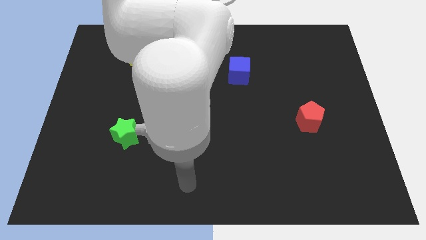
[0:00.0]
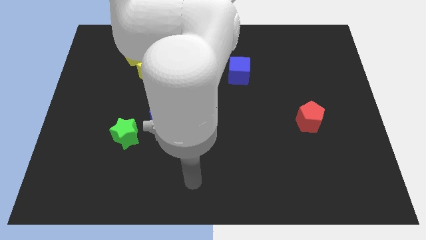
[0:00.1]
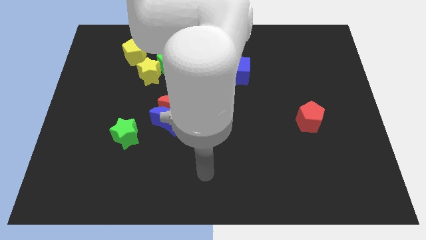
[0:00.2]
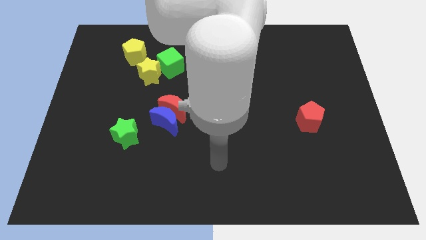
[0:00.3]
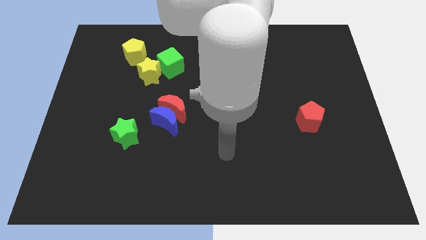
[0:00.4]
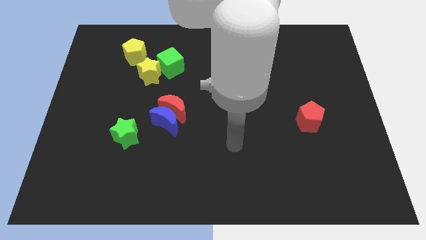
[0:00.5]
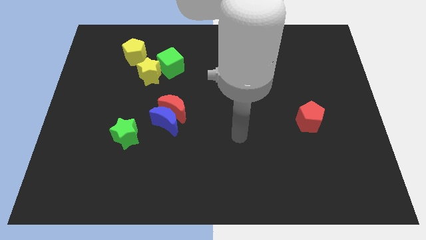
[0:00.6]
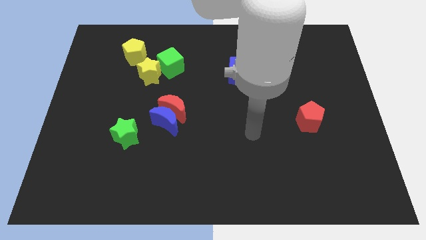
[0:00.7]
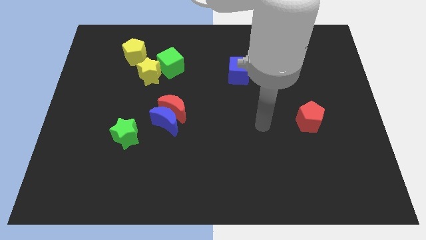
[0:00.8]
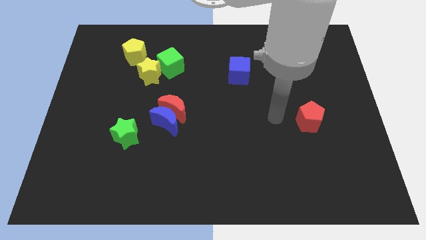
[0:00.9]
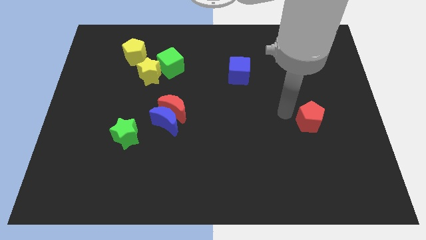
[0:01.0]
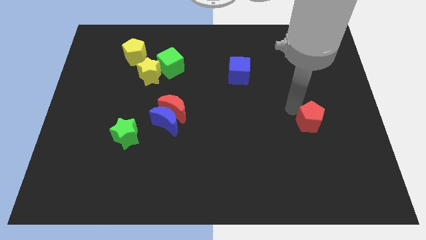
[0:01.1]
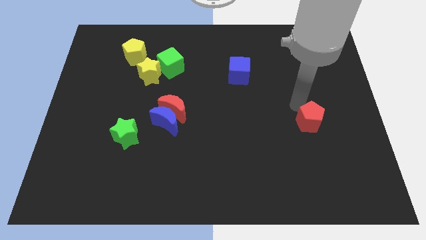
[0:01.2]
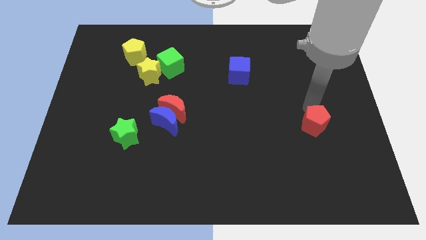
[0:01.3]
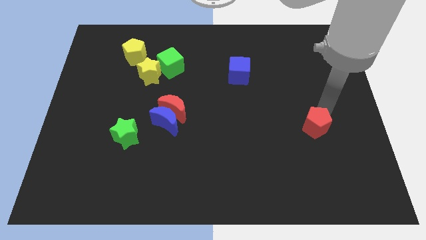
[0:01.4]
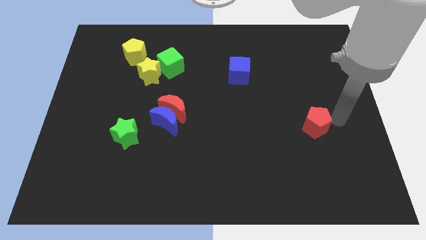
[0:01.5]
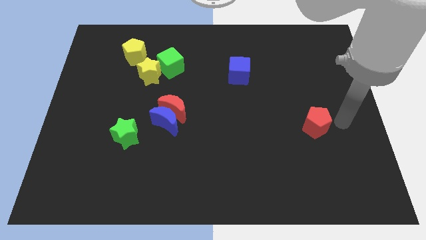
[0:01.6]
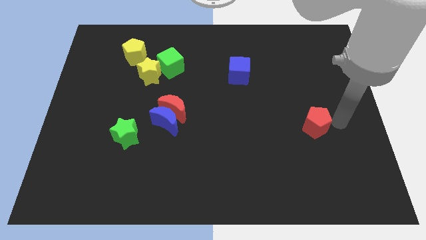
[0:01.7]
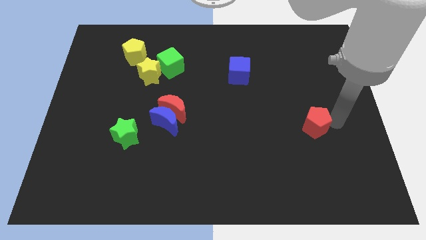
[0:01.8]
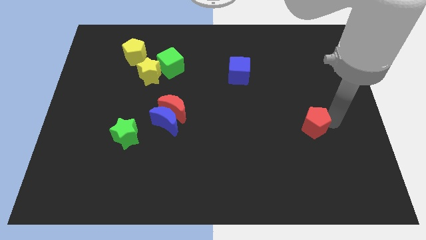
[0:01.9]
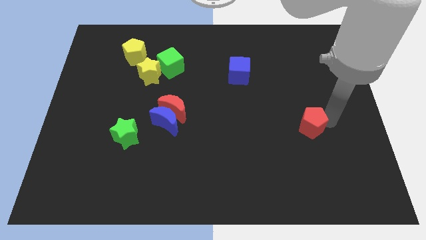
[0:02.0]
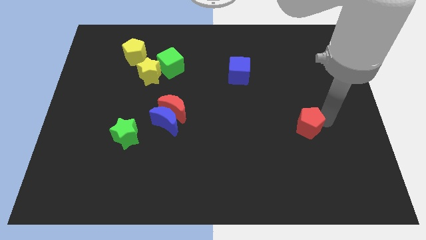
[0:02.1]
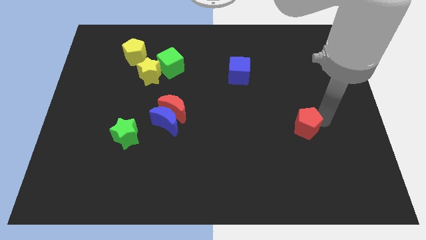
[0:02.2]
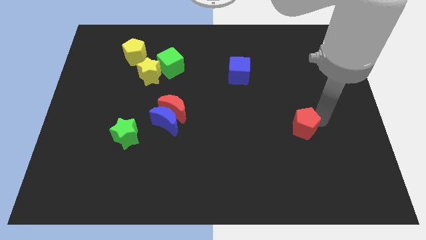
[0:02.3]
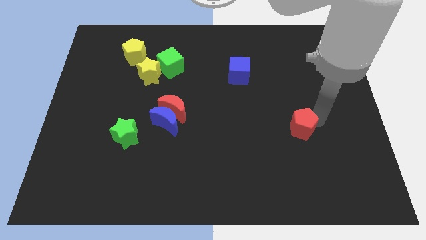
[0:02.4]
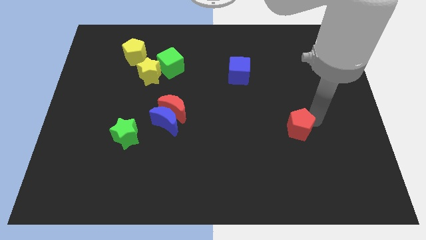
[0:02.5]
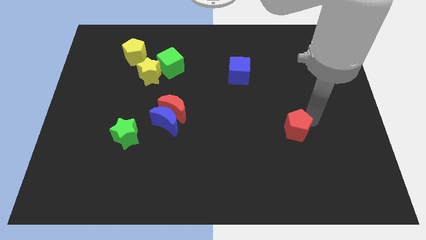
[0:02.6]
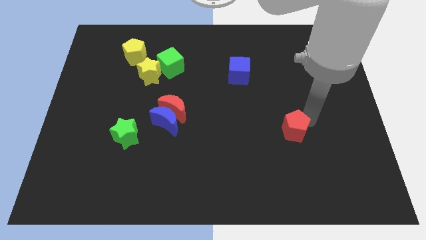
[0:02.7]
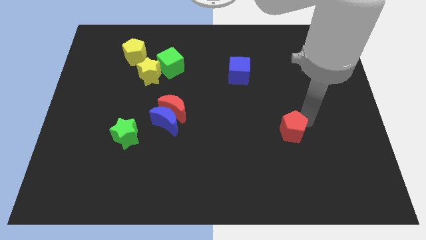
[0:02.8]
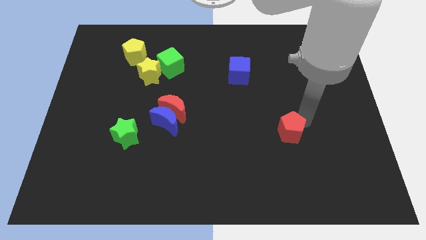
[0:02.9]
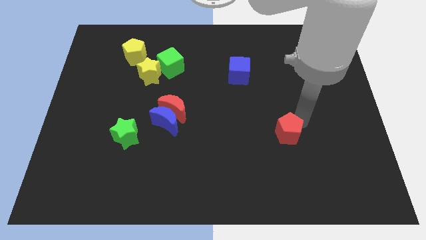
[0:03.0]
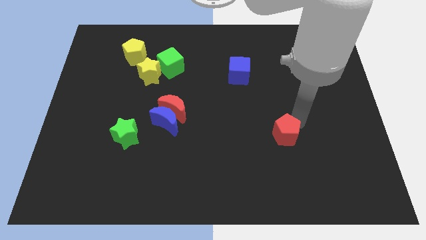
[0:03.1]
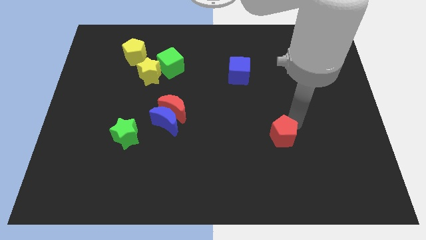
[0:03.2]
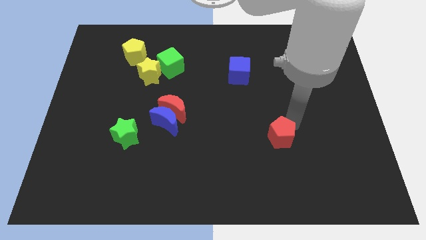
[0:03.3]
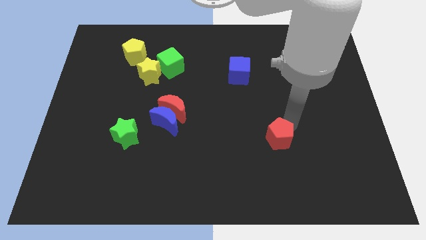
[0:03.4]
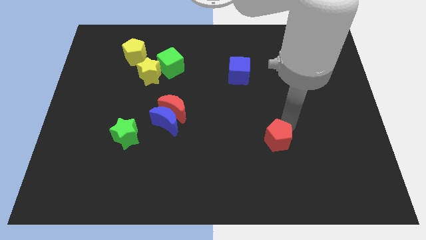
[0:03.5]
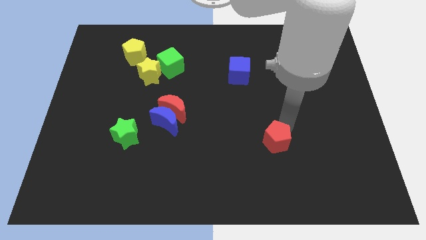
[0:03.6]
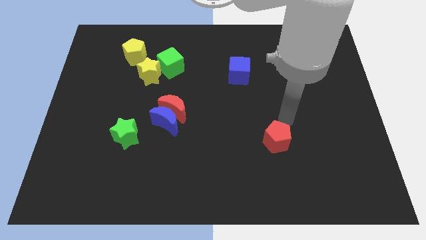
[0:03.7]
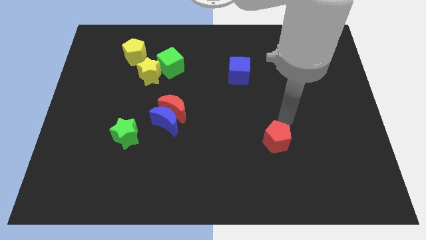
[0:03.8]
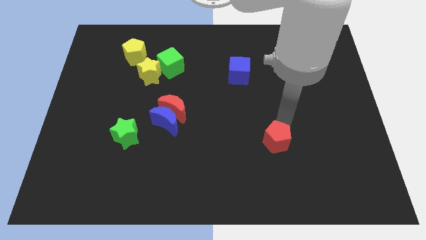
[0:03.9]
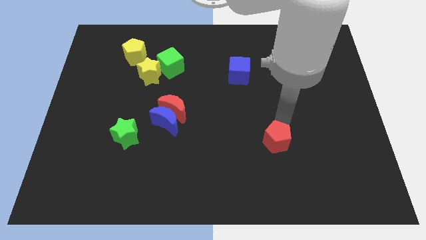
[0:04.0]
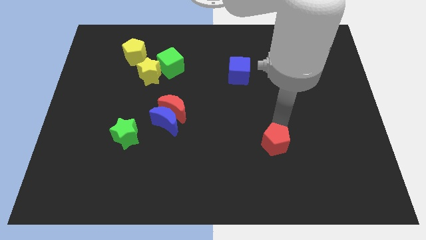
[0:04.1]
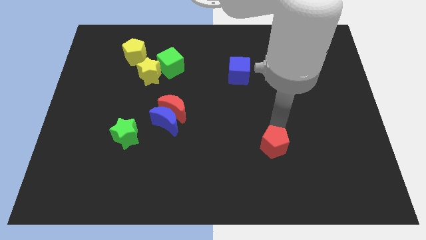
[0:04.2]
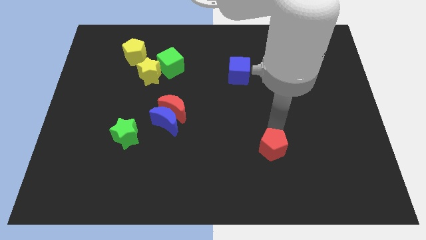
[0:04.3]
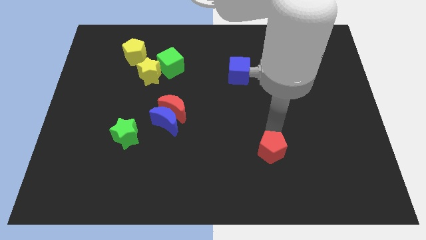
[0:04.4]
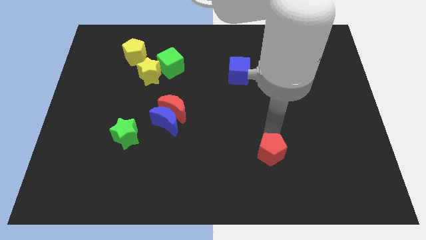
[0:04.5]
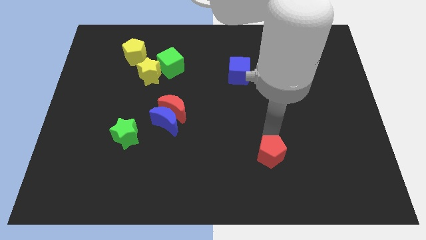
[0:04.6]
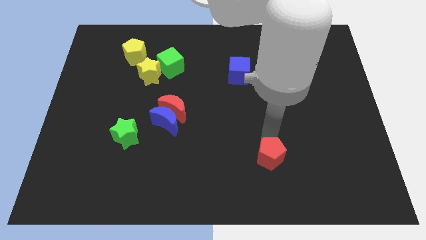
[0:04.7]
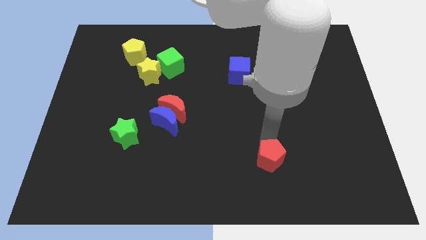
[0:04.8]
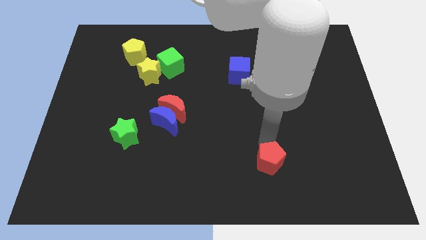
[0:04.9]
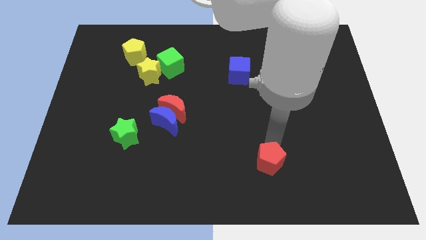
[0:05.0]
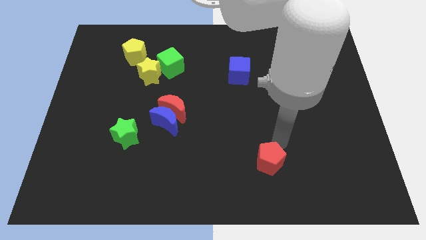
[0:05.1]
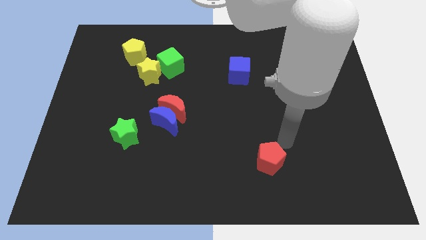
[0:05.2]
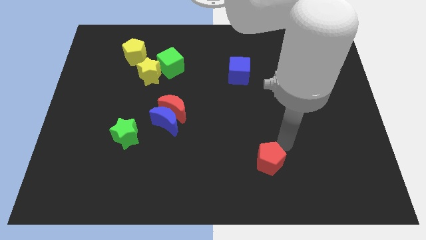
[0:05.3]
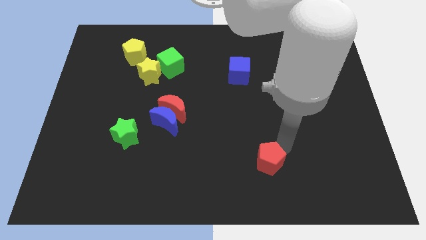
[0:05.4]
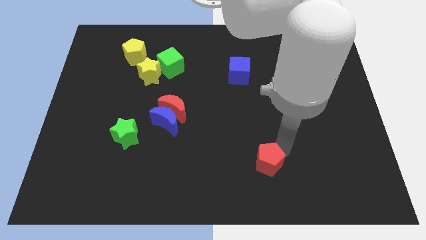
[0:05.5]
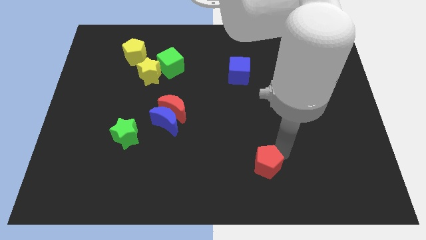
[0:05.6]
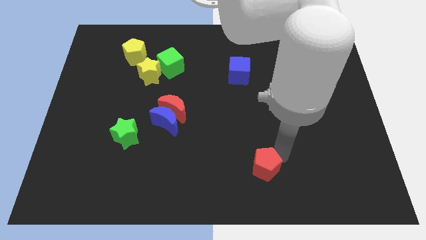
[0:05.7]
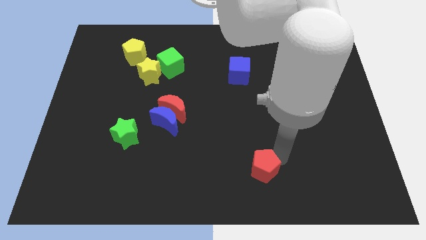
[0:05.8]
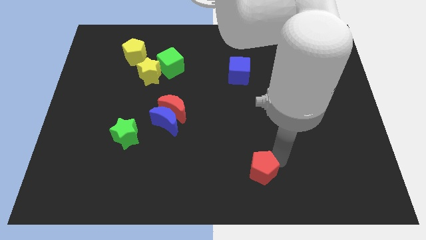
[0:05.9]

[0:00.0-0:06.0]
put the red pentagon to the bottom side

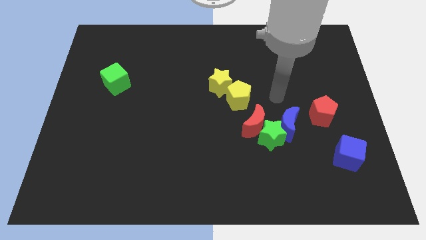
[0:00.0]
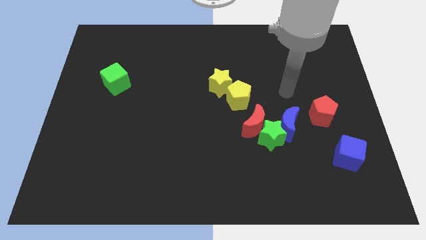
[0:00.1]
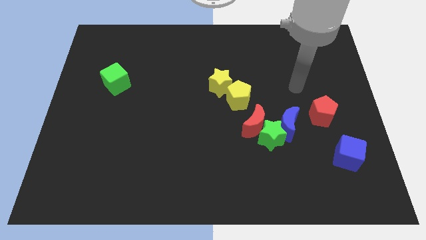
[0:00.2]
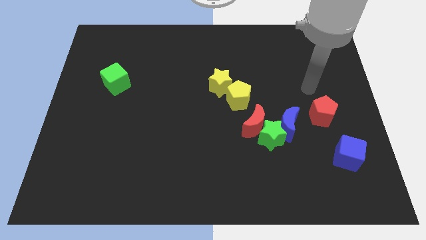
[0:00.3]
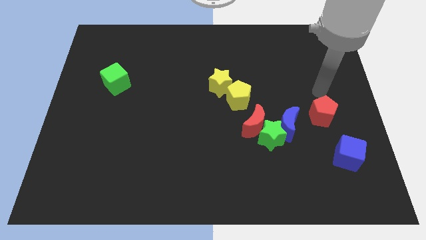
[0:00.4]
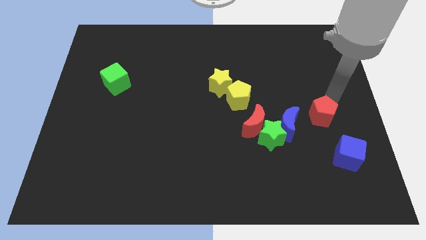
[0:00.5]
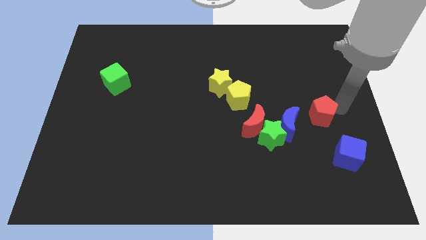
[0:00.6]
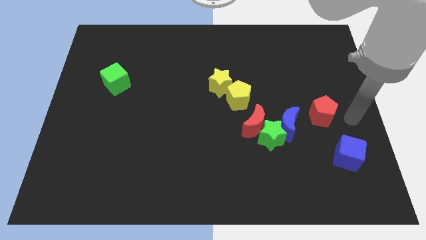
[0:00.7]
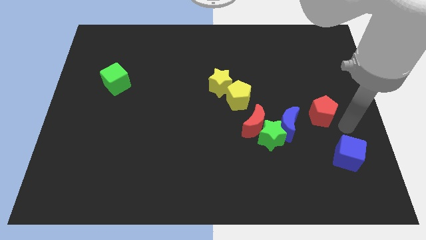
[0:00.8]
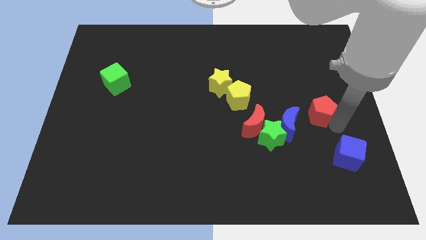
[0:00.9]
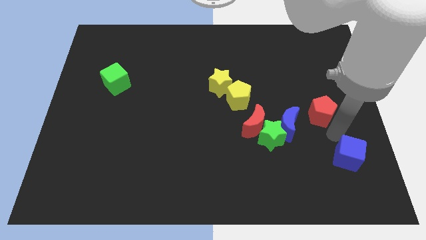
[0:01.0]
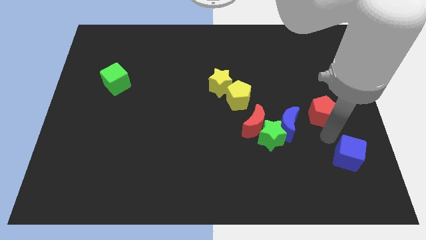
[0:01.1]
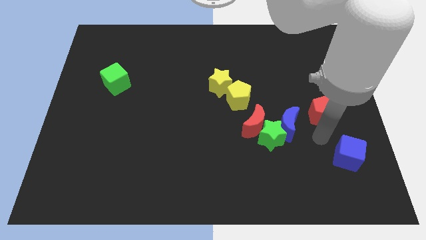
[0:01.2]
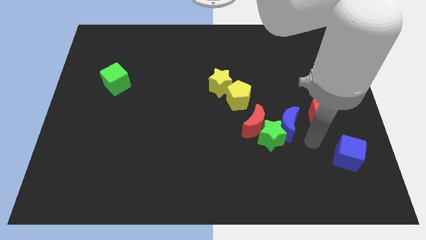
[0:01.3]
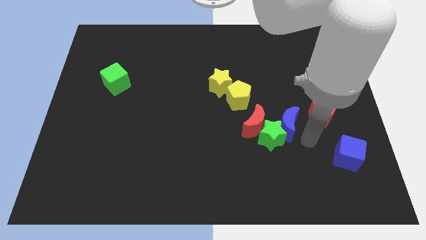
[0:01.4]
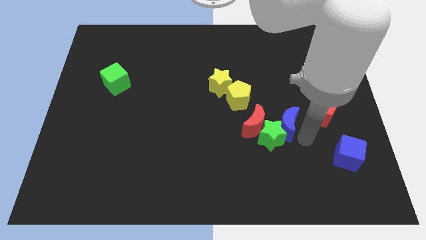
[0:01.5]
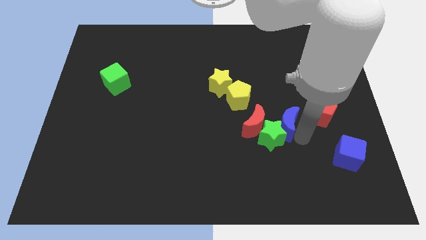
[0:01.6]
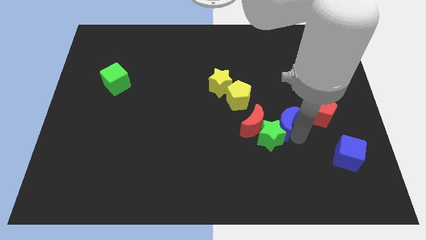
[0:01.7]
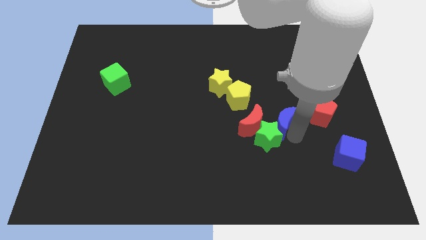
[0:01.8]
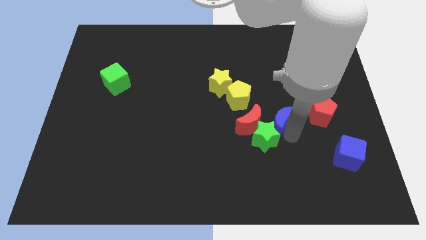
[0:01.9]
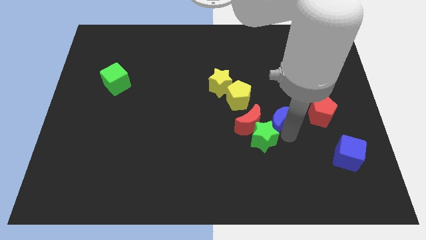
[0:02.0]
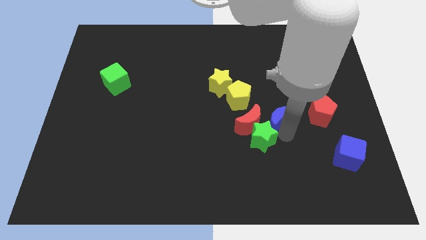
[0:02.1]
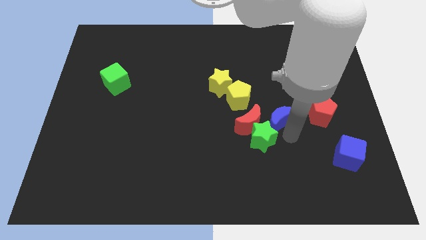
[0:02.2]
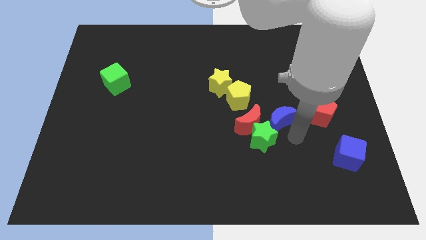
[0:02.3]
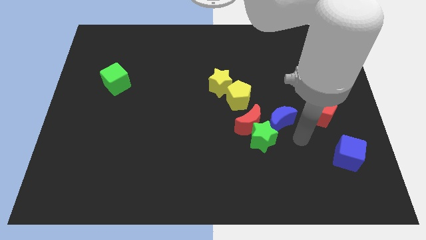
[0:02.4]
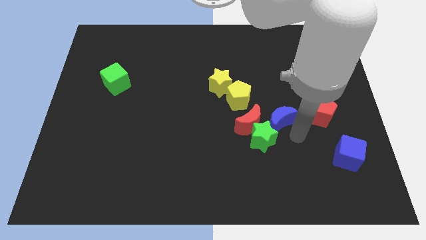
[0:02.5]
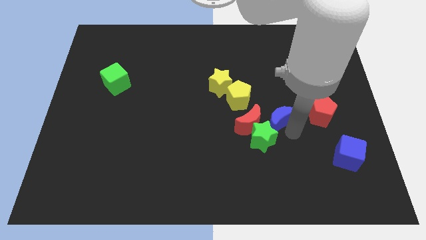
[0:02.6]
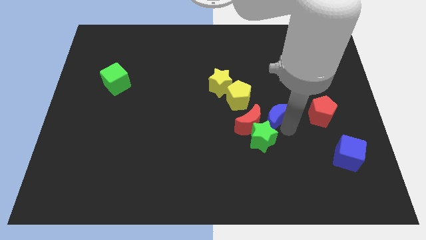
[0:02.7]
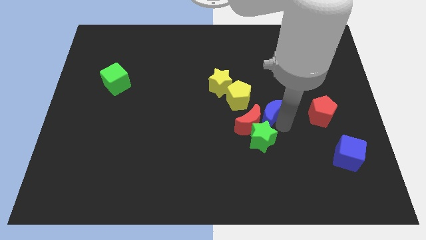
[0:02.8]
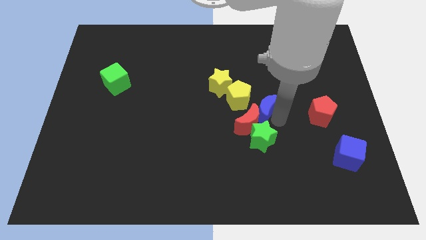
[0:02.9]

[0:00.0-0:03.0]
move the blue moon to the center of the board
